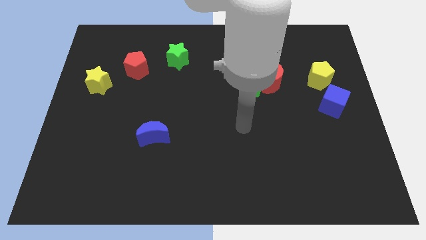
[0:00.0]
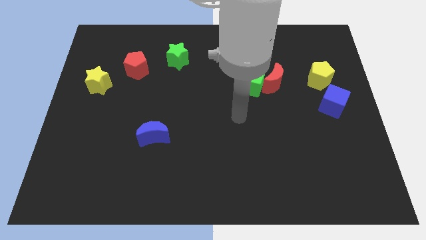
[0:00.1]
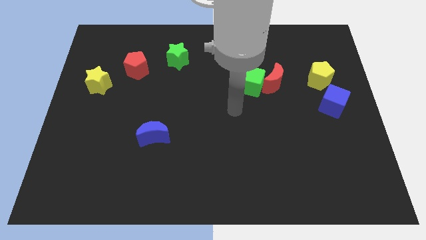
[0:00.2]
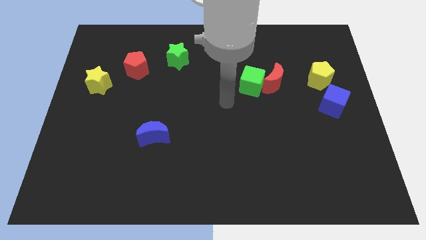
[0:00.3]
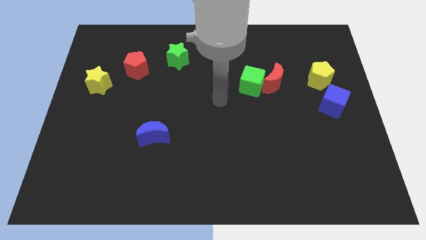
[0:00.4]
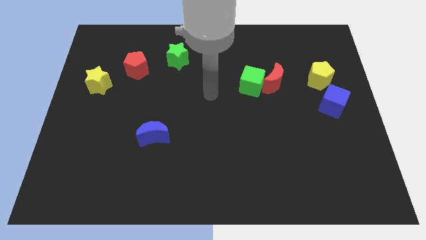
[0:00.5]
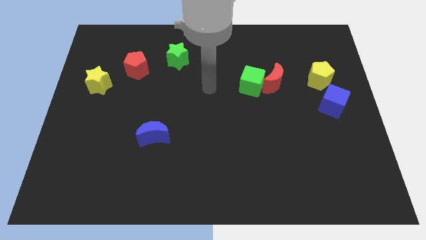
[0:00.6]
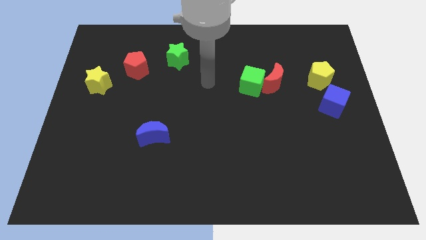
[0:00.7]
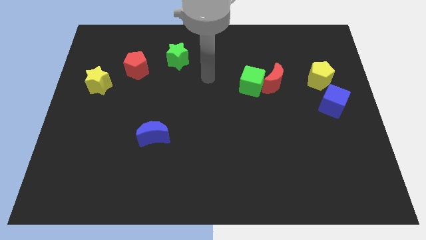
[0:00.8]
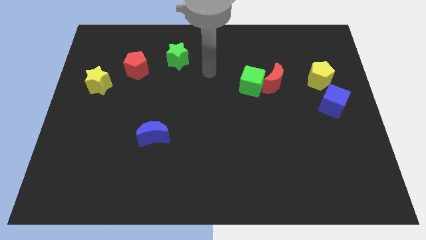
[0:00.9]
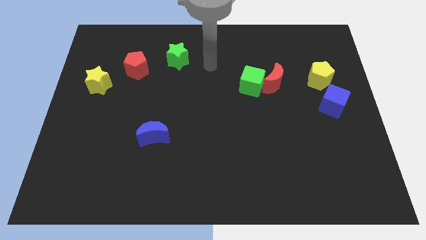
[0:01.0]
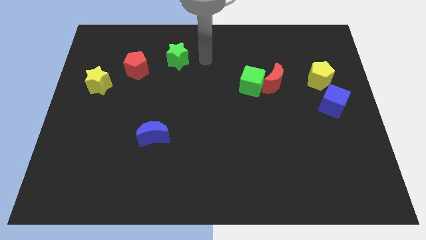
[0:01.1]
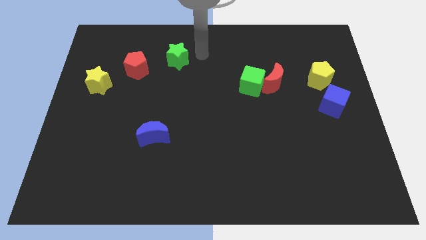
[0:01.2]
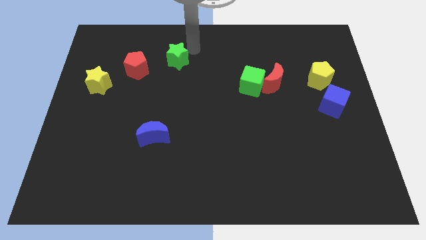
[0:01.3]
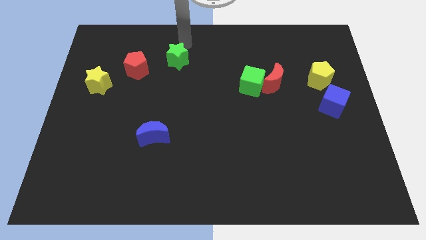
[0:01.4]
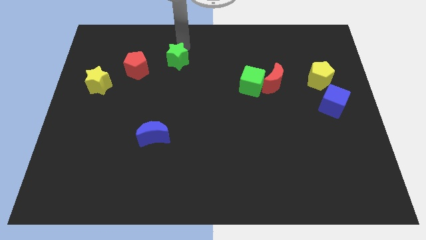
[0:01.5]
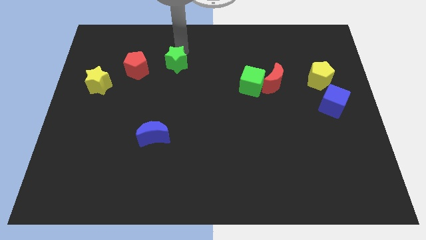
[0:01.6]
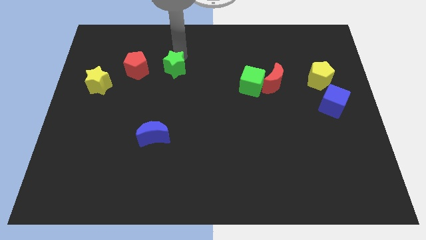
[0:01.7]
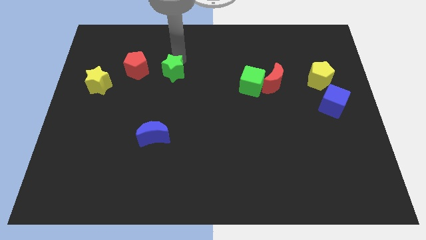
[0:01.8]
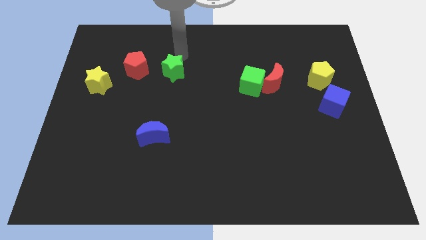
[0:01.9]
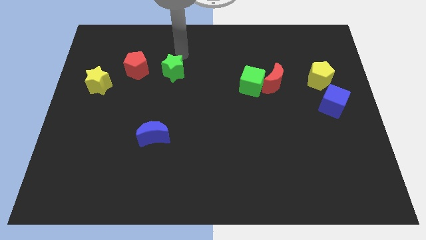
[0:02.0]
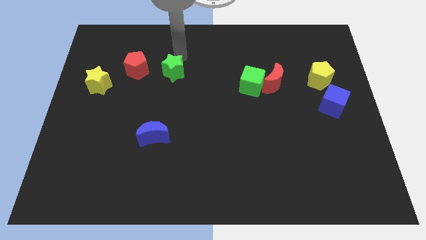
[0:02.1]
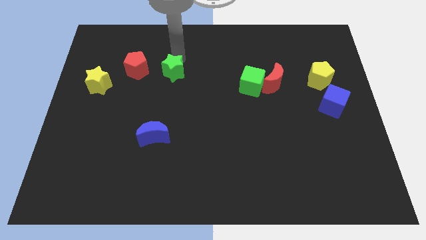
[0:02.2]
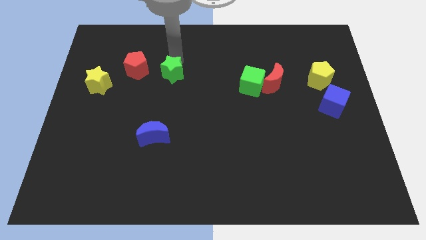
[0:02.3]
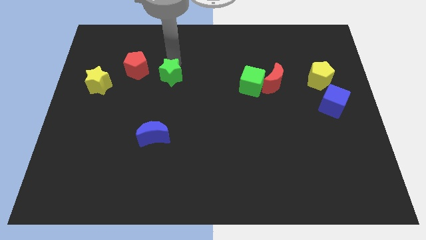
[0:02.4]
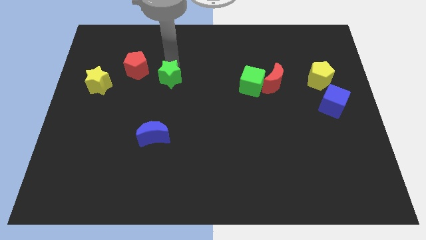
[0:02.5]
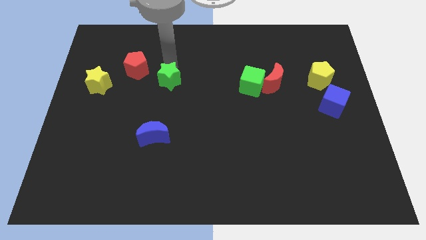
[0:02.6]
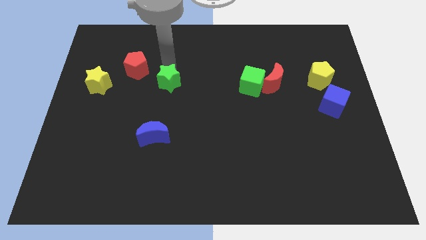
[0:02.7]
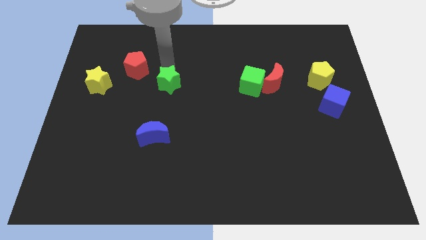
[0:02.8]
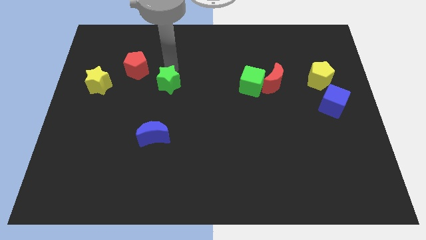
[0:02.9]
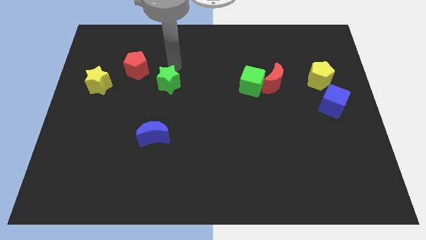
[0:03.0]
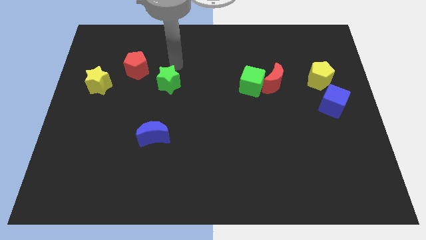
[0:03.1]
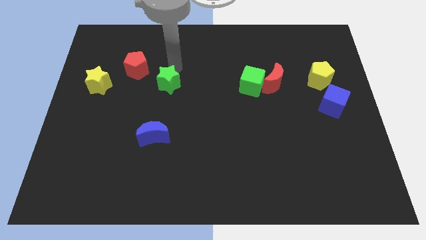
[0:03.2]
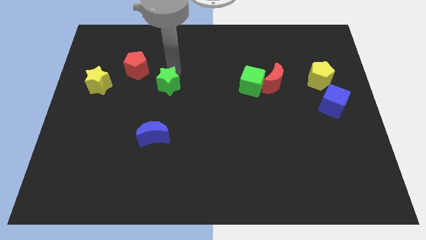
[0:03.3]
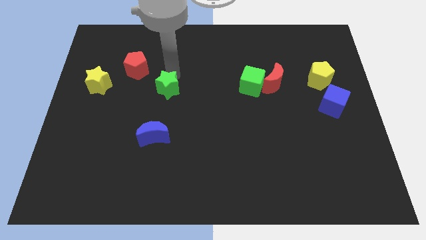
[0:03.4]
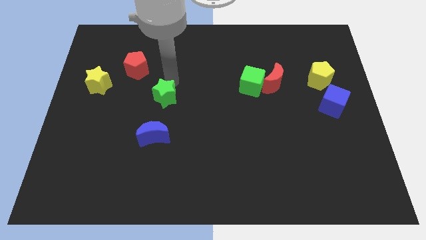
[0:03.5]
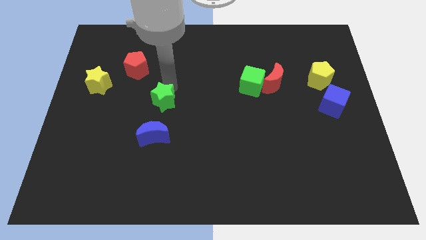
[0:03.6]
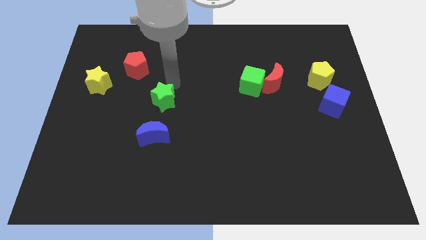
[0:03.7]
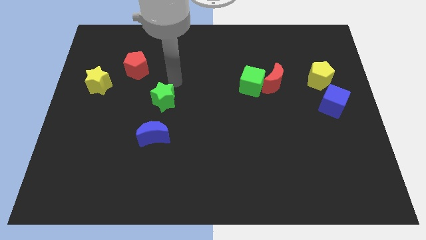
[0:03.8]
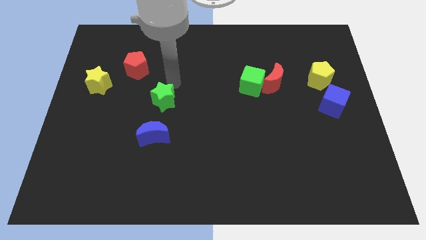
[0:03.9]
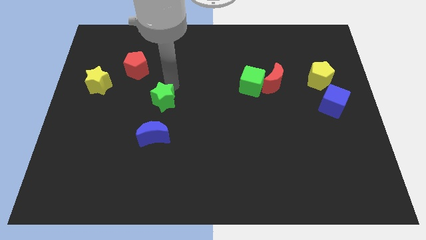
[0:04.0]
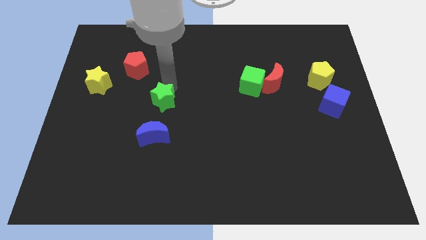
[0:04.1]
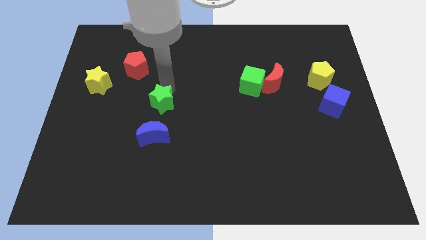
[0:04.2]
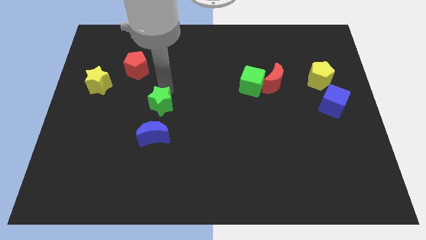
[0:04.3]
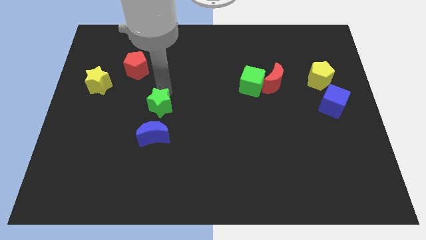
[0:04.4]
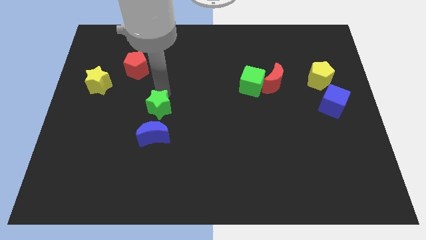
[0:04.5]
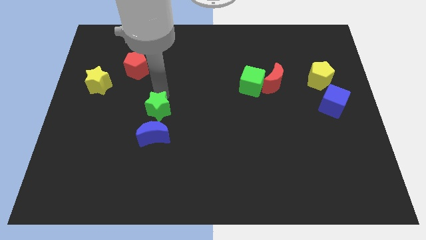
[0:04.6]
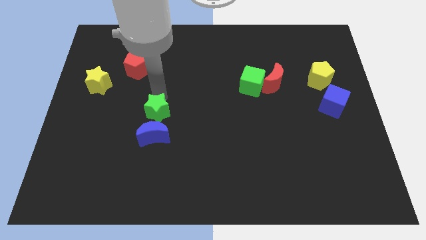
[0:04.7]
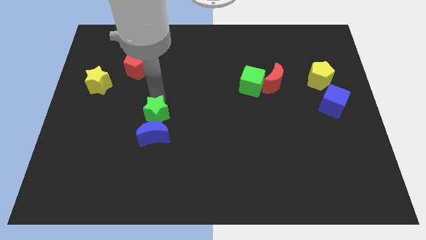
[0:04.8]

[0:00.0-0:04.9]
slide the green star close to the blue moon

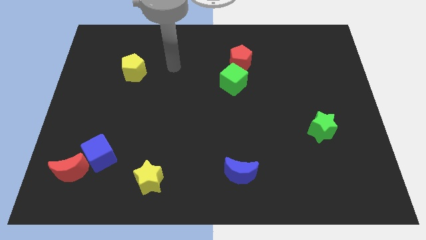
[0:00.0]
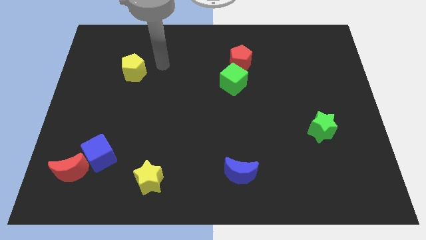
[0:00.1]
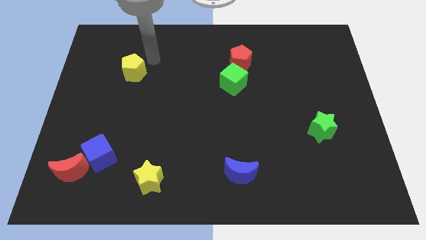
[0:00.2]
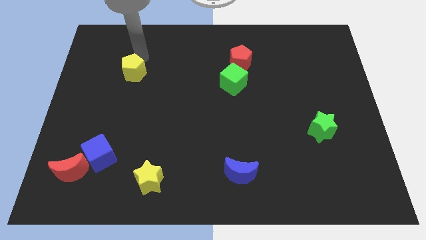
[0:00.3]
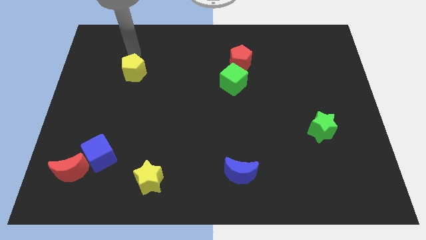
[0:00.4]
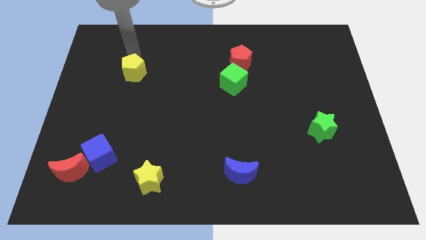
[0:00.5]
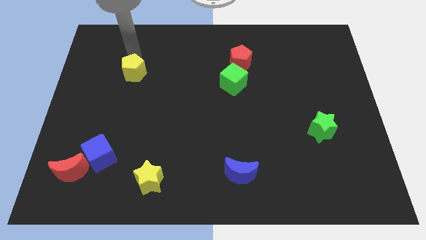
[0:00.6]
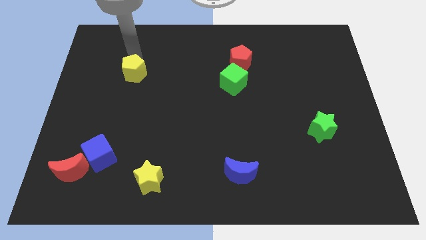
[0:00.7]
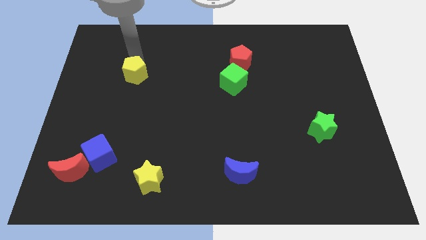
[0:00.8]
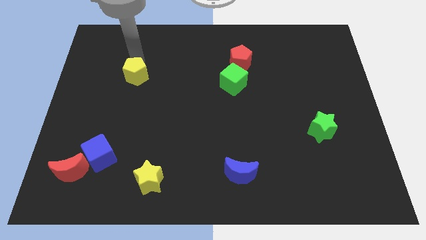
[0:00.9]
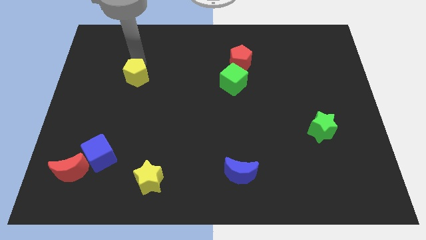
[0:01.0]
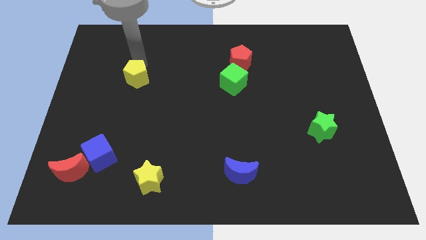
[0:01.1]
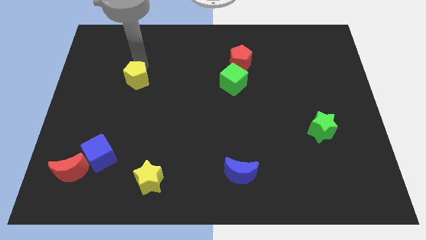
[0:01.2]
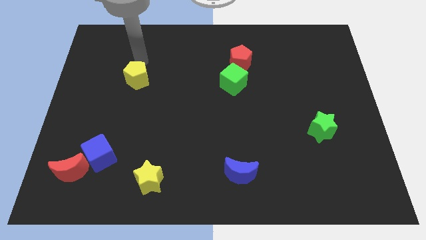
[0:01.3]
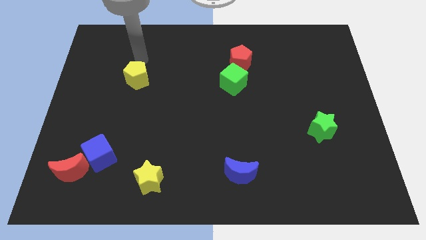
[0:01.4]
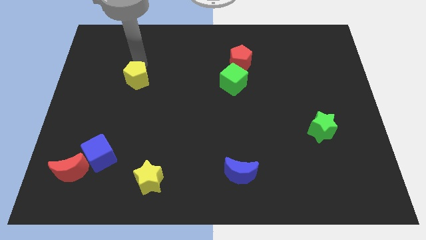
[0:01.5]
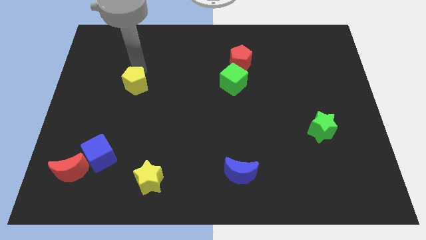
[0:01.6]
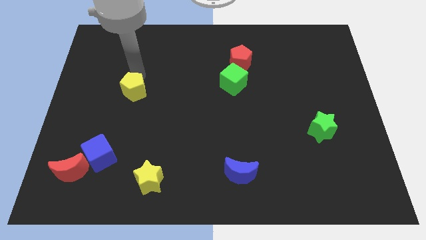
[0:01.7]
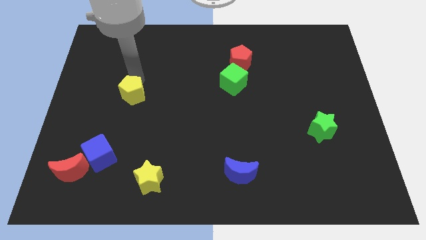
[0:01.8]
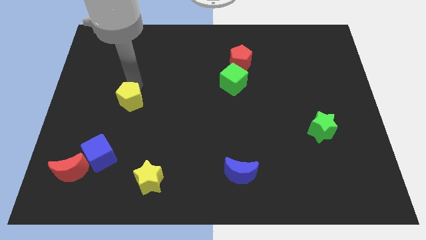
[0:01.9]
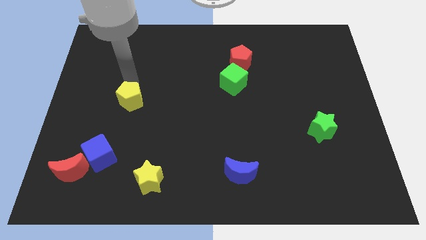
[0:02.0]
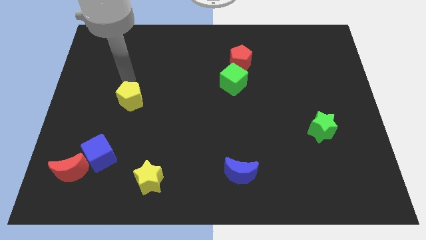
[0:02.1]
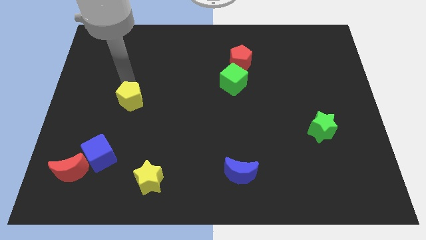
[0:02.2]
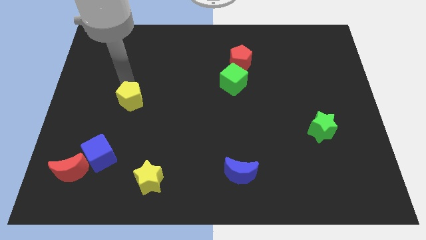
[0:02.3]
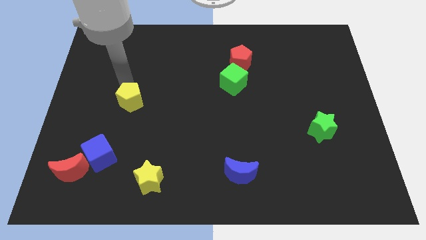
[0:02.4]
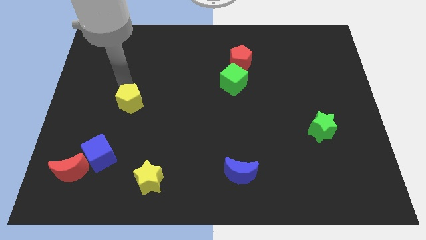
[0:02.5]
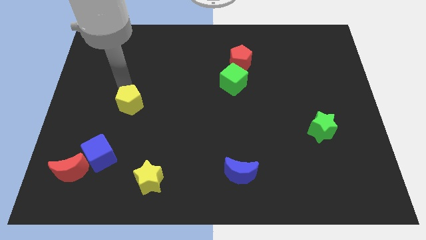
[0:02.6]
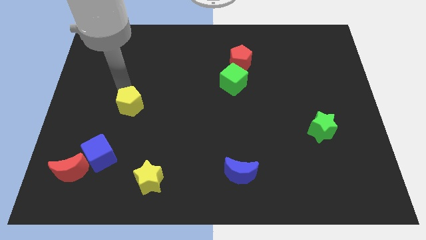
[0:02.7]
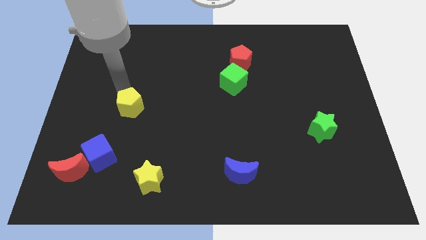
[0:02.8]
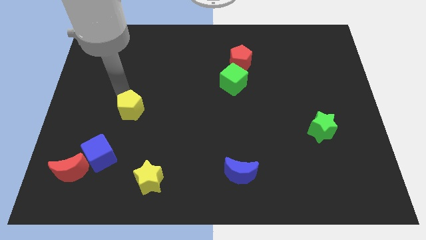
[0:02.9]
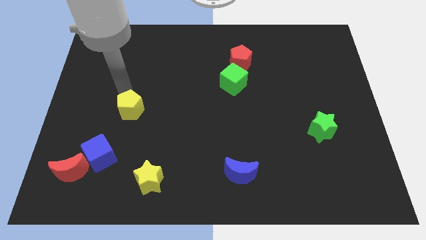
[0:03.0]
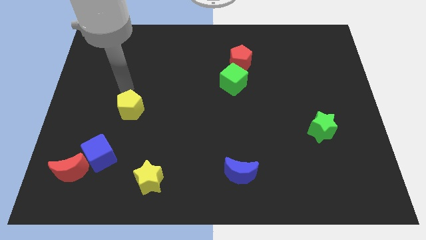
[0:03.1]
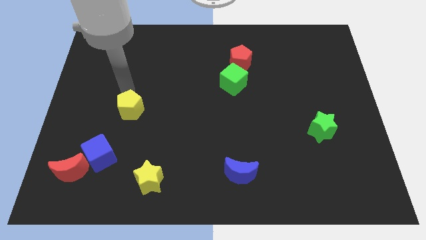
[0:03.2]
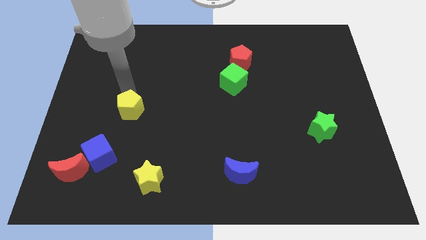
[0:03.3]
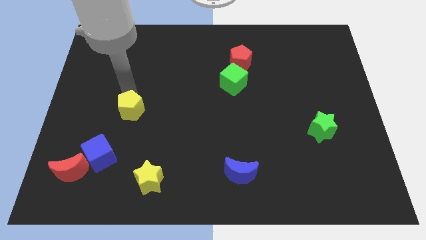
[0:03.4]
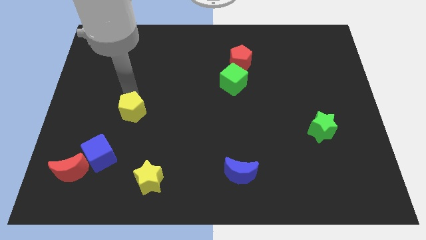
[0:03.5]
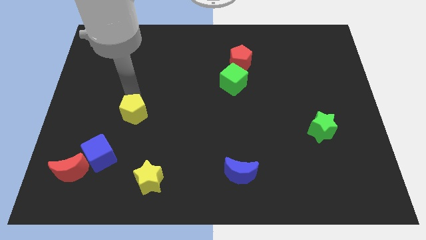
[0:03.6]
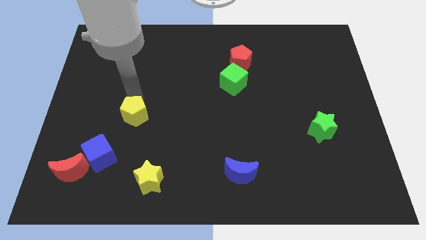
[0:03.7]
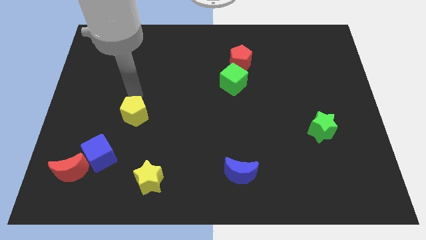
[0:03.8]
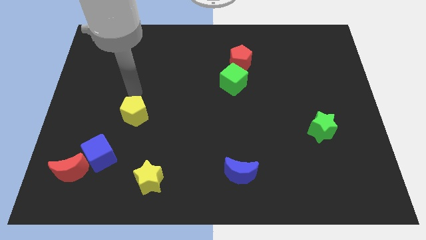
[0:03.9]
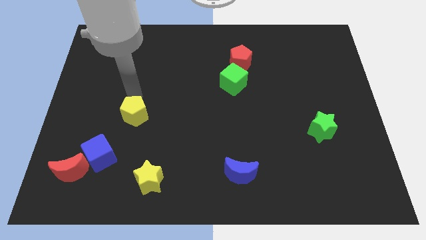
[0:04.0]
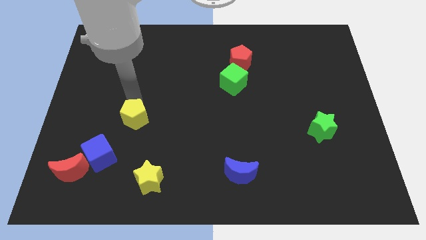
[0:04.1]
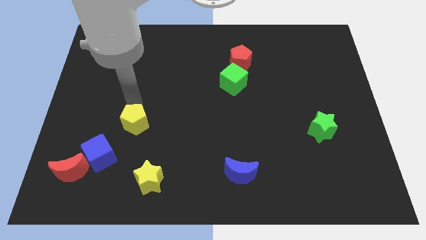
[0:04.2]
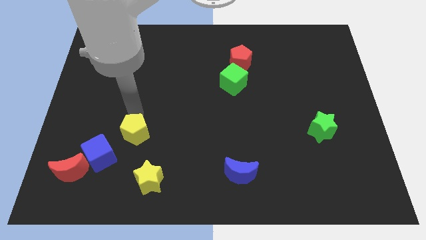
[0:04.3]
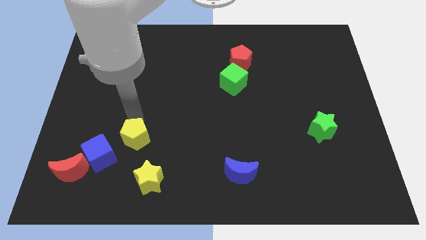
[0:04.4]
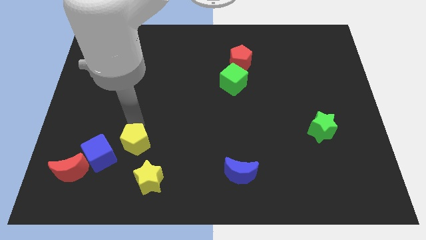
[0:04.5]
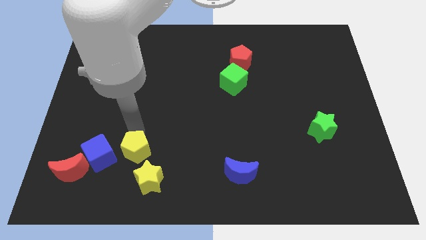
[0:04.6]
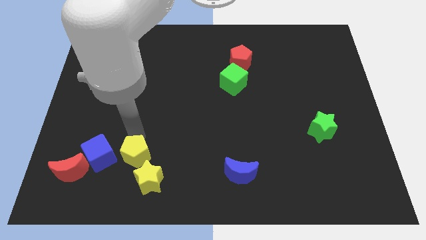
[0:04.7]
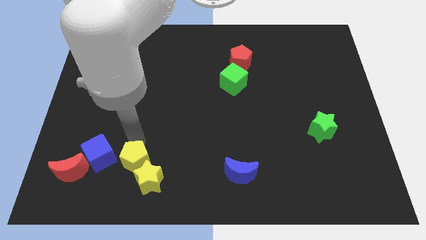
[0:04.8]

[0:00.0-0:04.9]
slide the yellow pentagon towards the yellow star
